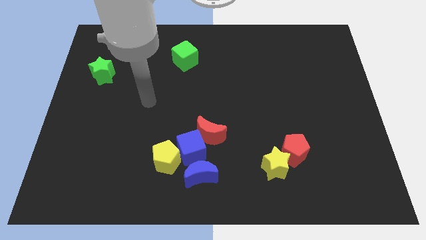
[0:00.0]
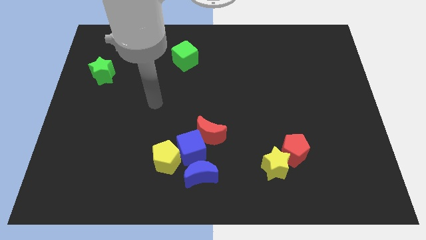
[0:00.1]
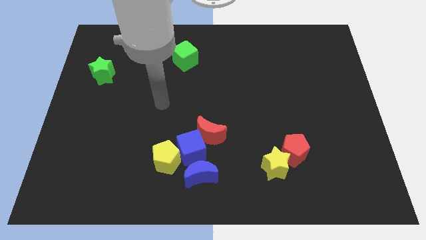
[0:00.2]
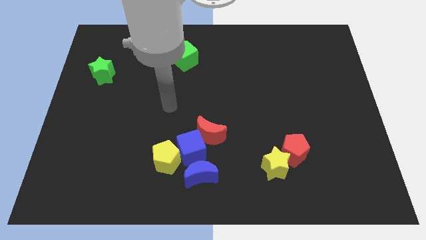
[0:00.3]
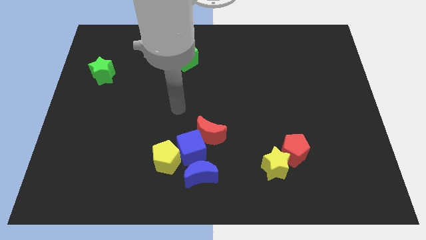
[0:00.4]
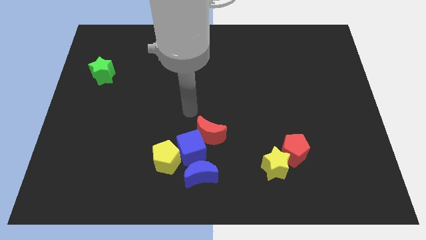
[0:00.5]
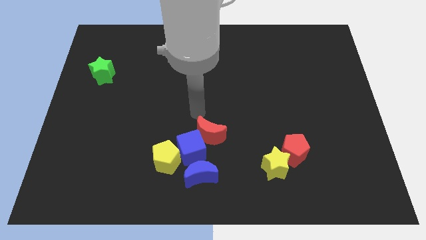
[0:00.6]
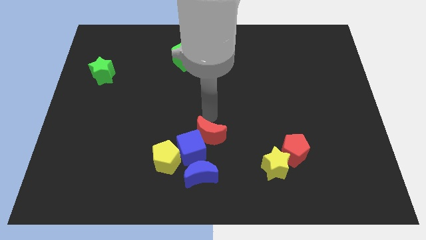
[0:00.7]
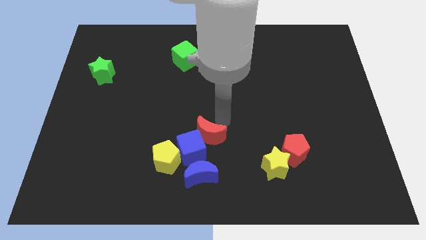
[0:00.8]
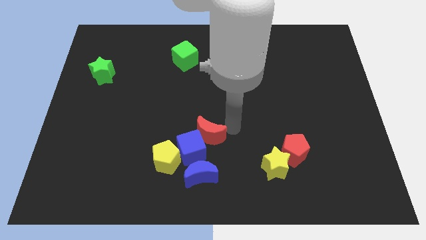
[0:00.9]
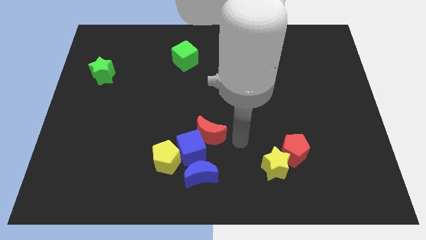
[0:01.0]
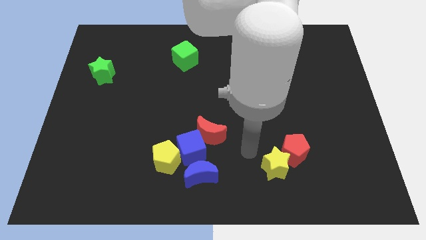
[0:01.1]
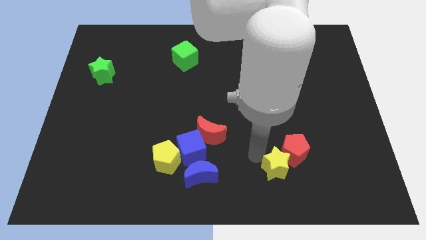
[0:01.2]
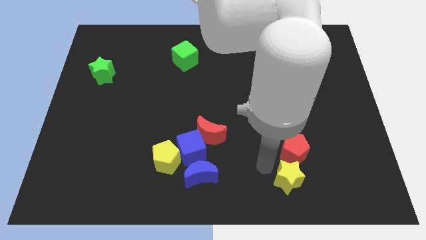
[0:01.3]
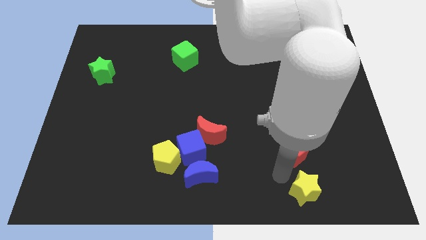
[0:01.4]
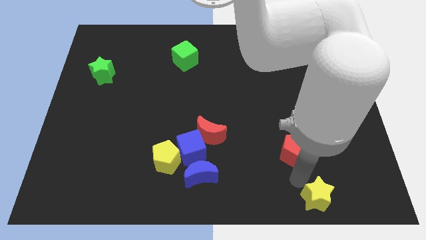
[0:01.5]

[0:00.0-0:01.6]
move the red pentagon away from the yellow star

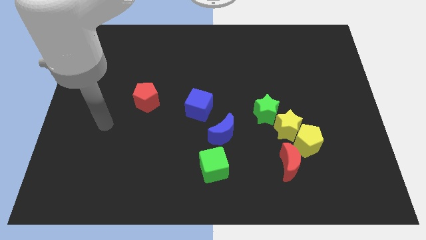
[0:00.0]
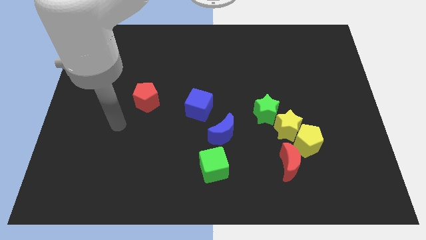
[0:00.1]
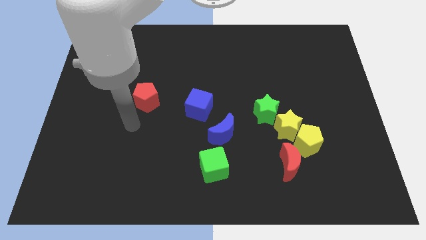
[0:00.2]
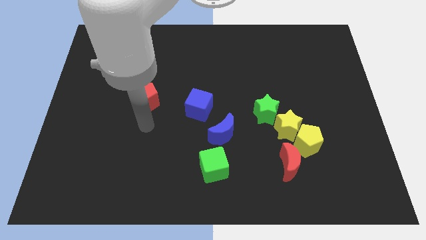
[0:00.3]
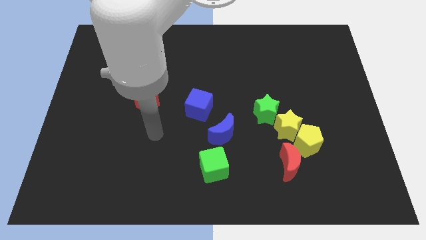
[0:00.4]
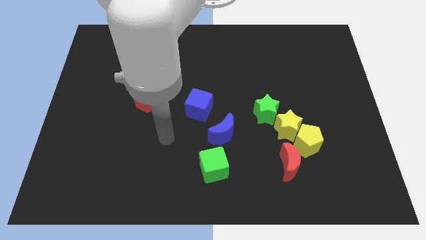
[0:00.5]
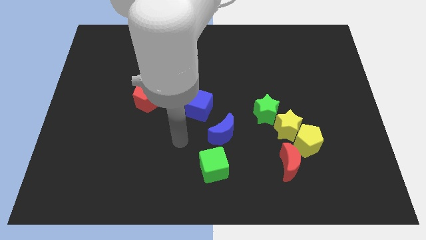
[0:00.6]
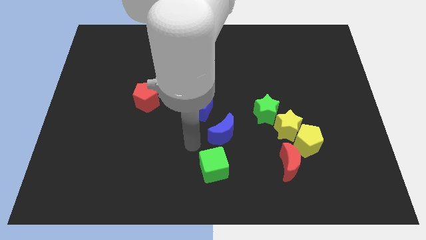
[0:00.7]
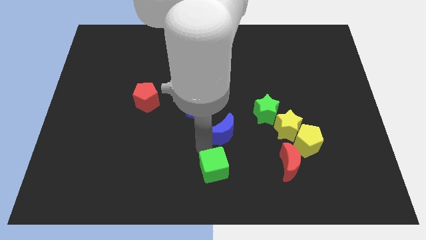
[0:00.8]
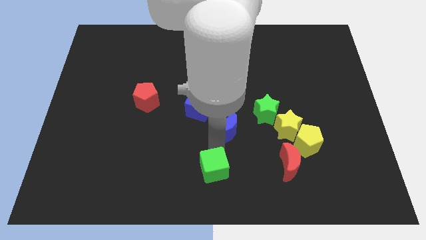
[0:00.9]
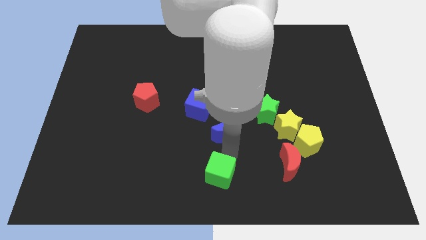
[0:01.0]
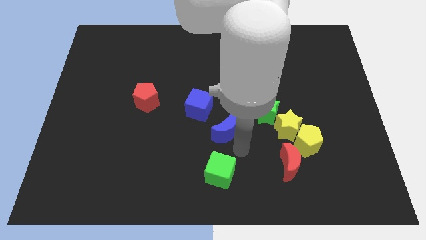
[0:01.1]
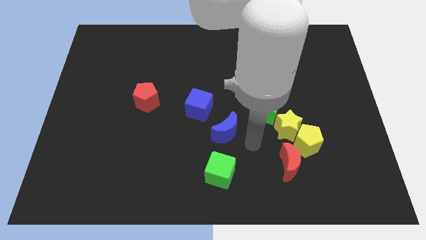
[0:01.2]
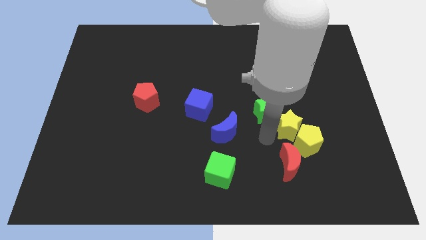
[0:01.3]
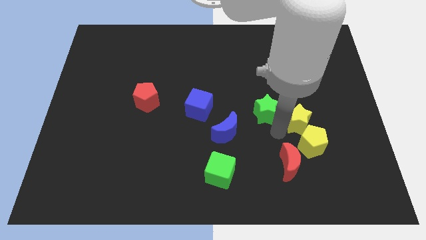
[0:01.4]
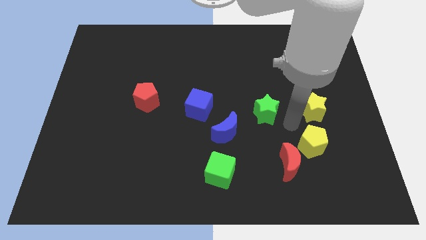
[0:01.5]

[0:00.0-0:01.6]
pull the green star apart from the yellow star

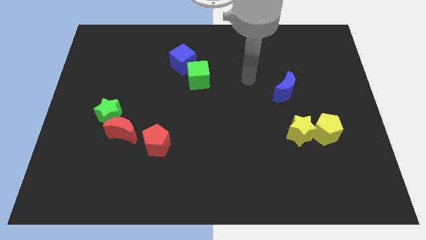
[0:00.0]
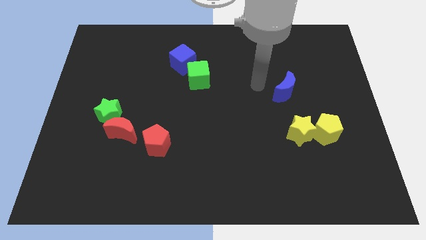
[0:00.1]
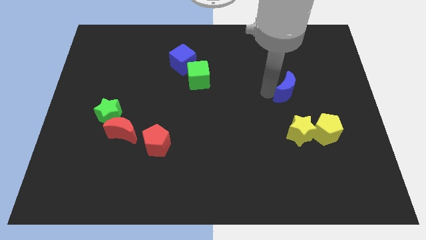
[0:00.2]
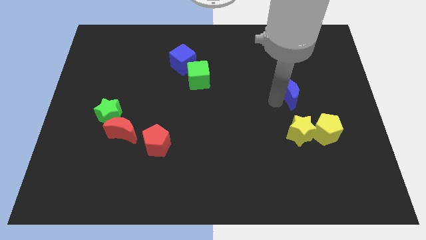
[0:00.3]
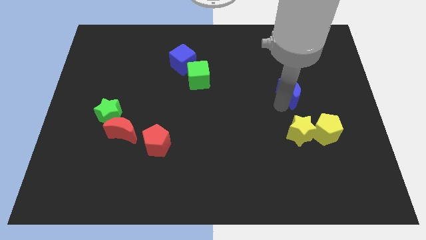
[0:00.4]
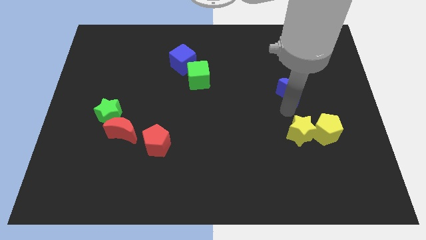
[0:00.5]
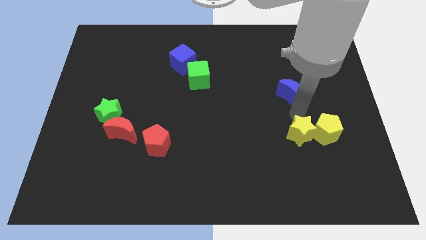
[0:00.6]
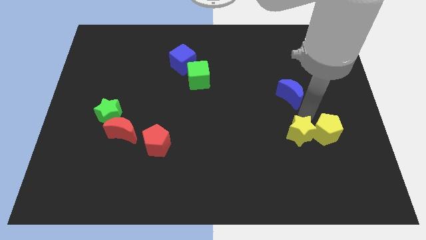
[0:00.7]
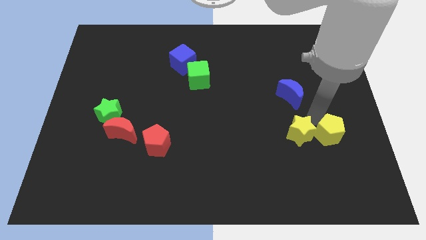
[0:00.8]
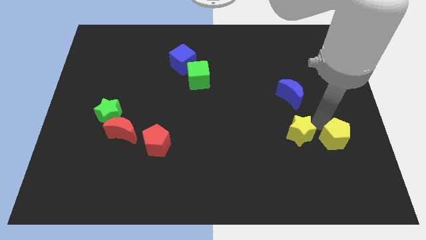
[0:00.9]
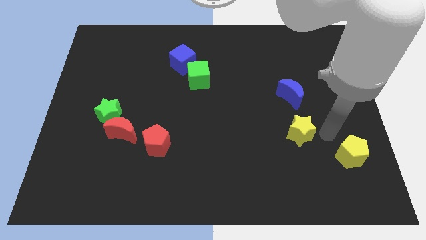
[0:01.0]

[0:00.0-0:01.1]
move the yellow star away from the yellow pentagon

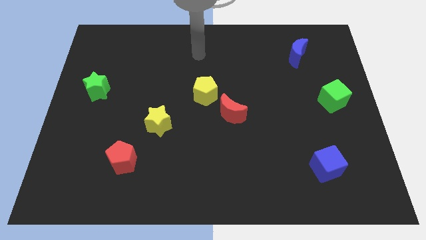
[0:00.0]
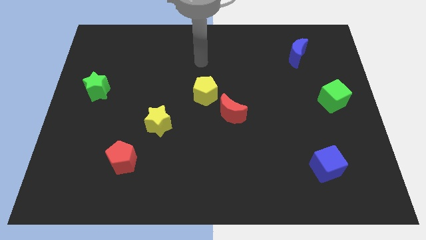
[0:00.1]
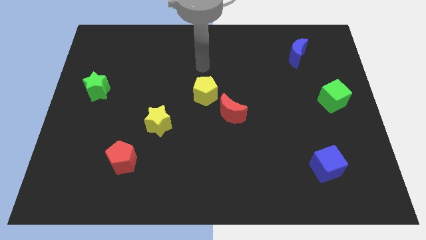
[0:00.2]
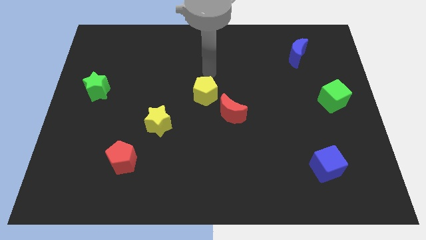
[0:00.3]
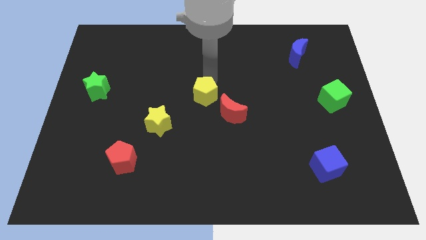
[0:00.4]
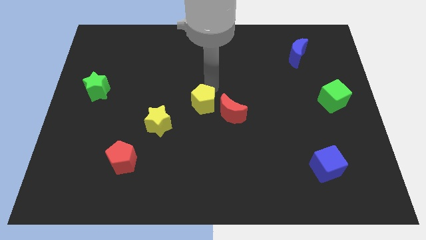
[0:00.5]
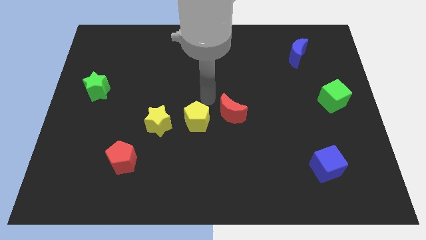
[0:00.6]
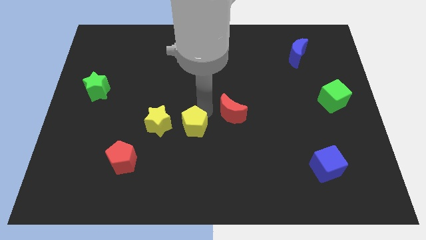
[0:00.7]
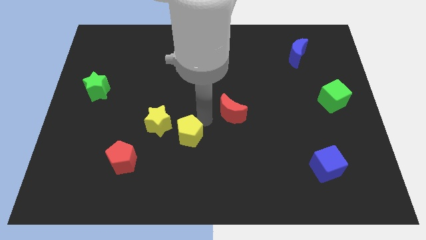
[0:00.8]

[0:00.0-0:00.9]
move the red moon away from the yellow pentagon

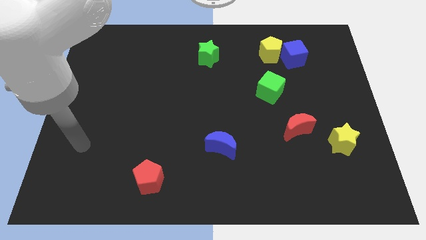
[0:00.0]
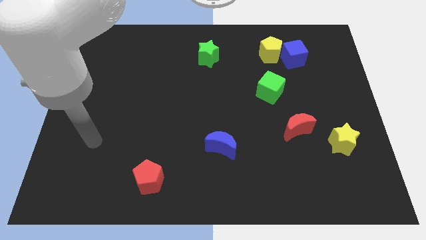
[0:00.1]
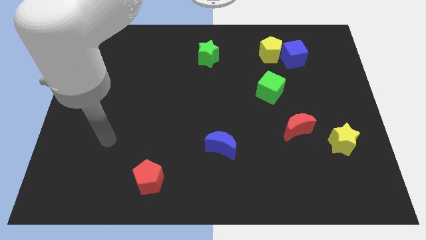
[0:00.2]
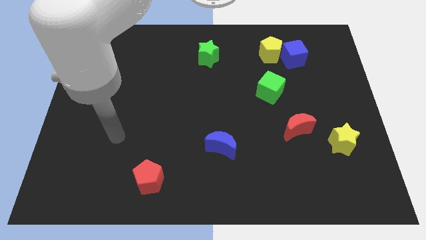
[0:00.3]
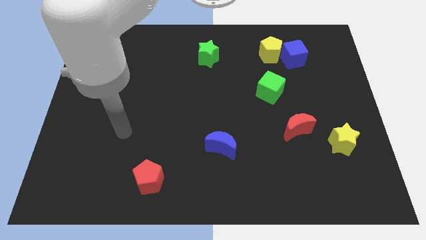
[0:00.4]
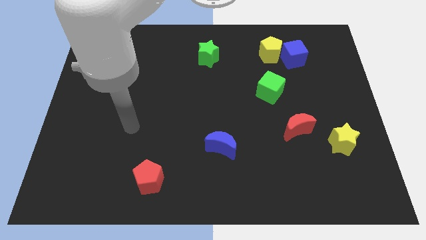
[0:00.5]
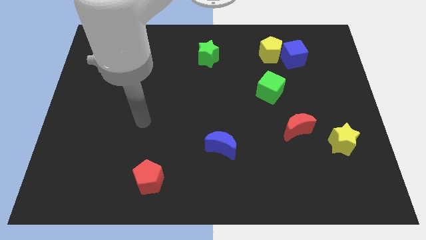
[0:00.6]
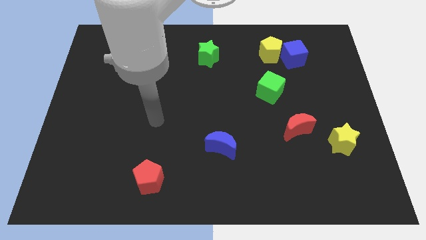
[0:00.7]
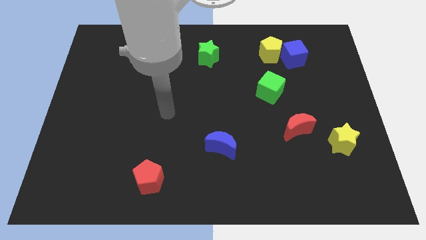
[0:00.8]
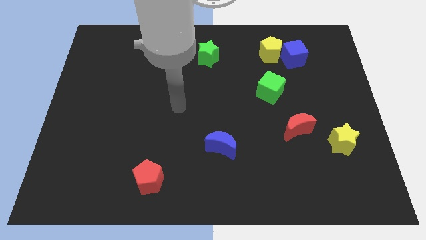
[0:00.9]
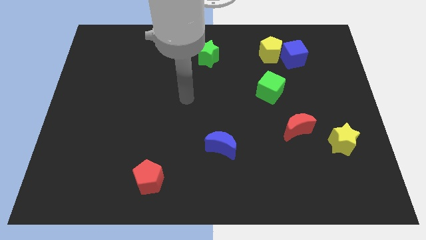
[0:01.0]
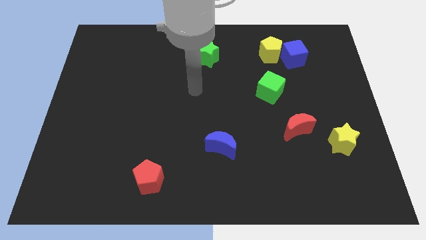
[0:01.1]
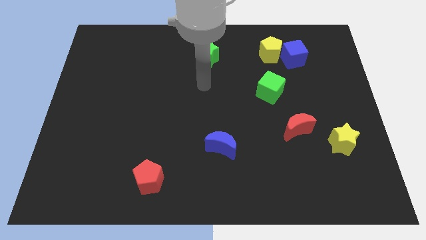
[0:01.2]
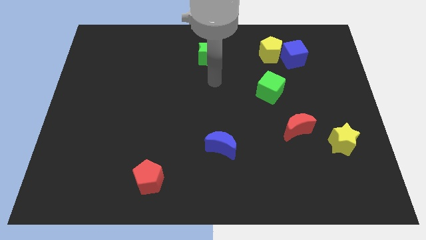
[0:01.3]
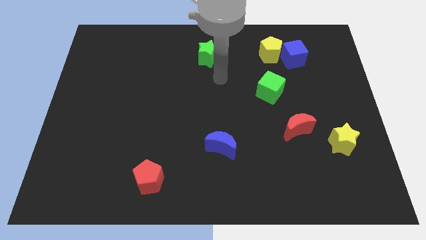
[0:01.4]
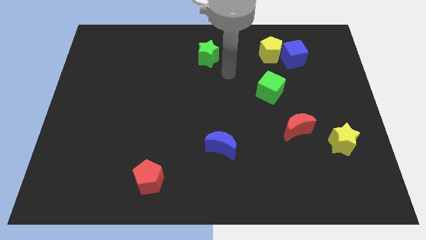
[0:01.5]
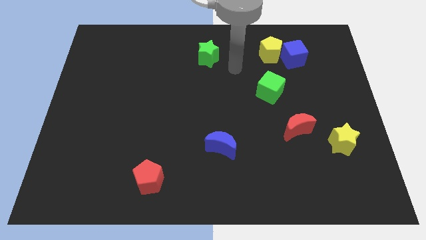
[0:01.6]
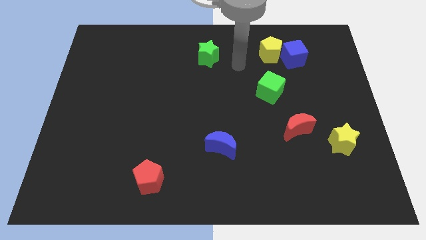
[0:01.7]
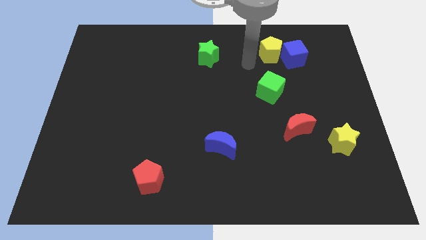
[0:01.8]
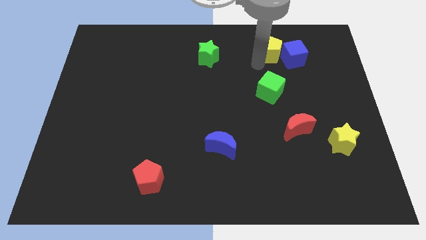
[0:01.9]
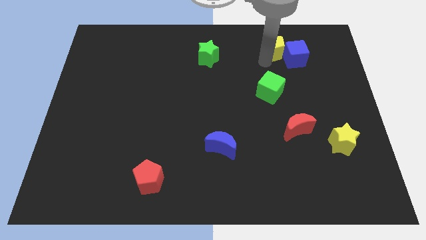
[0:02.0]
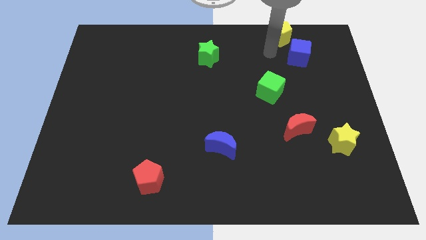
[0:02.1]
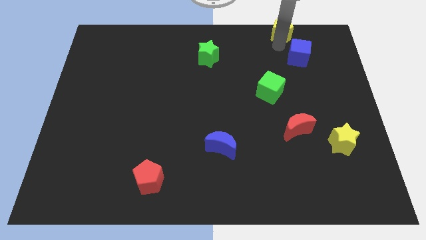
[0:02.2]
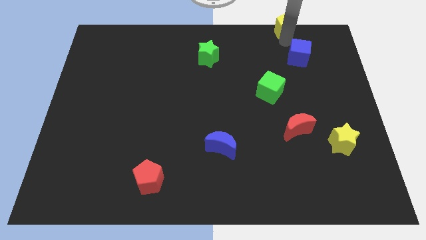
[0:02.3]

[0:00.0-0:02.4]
pull the blue cube apart from the yellow pentagon

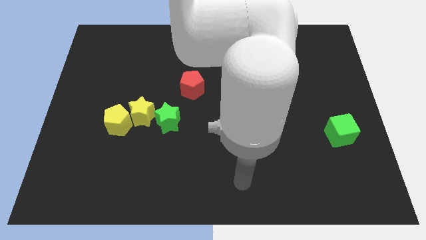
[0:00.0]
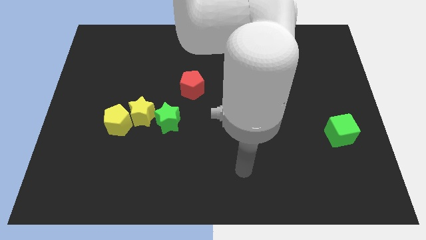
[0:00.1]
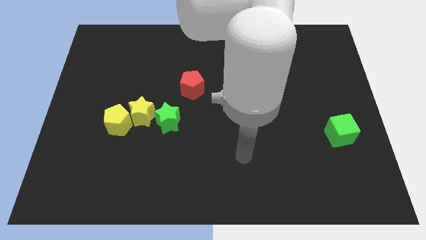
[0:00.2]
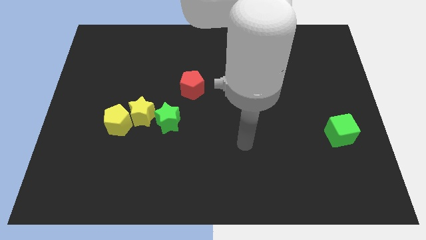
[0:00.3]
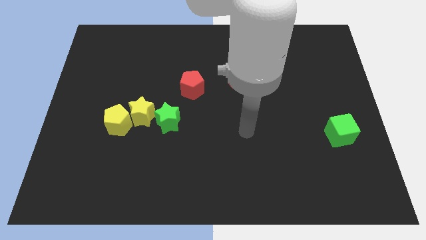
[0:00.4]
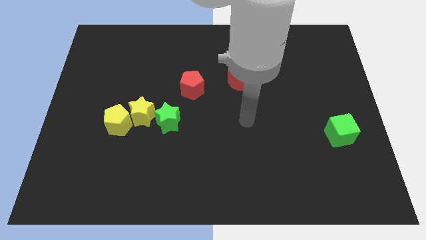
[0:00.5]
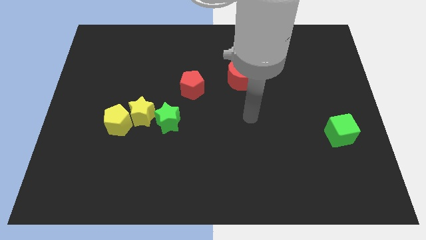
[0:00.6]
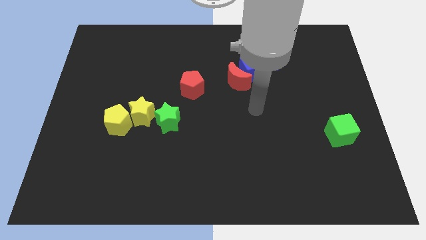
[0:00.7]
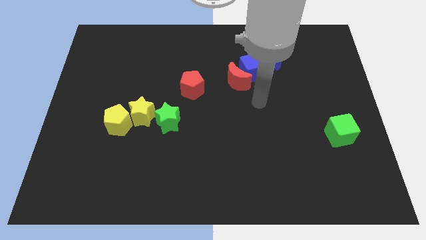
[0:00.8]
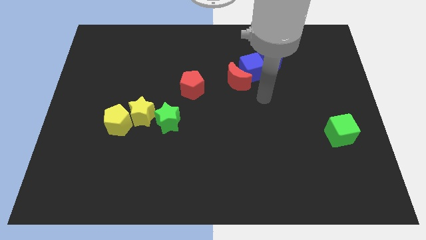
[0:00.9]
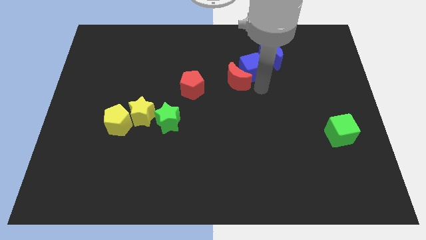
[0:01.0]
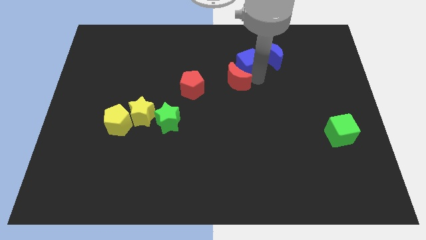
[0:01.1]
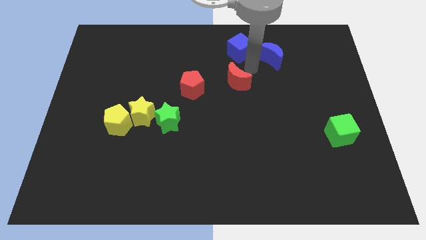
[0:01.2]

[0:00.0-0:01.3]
pull the red moon apart from the blue cube

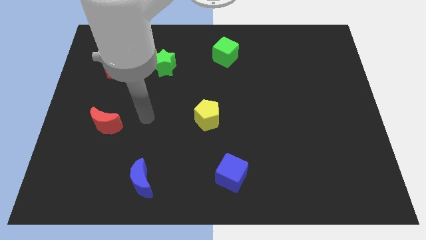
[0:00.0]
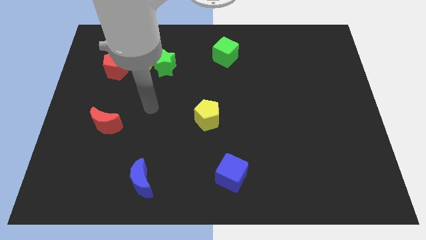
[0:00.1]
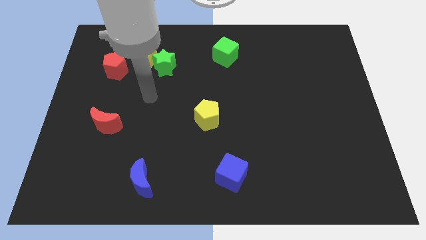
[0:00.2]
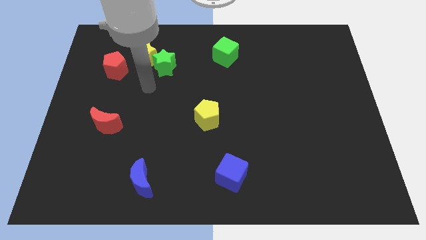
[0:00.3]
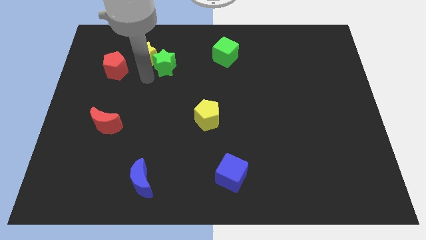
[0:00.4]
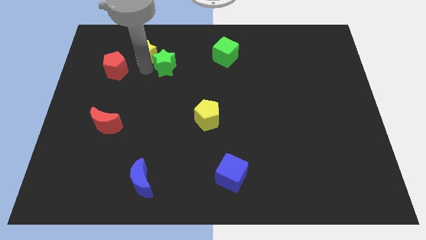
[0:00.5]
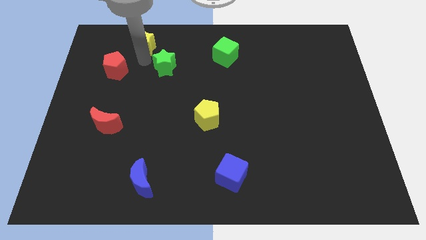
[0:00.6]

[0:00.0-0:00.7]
move the green star away from the yellow star
